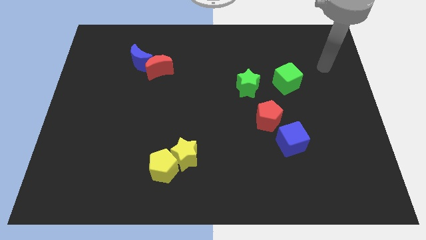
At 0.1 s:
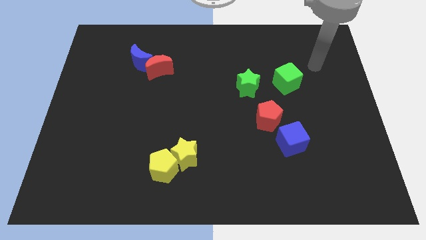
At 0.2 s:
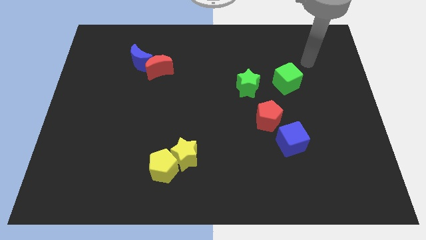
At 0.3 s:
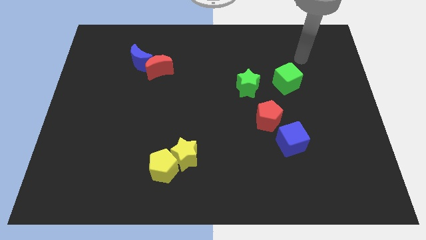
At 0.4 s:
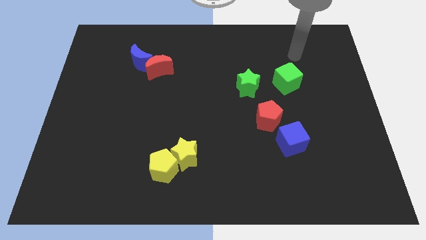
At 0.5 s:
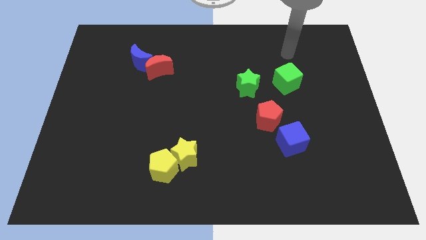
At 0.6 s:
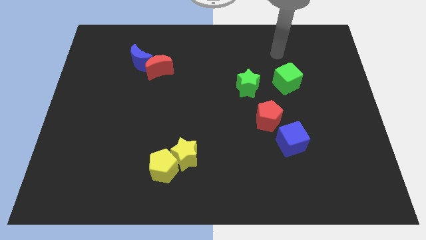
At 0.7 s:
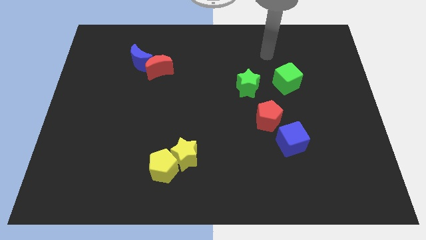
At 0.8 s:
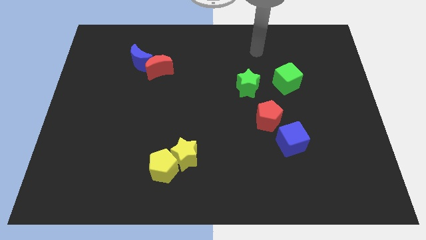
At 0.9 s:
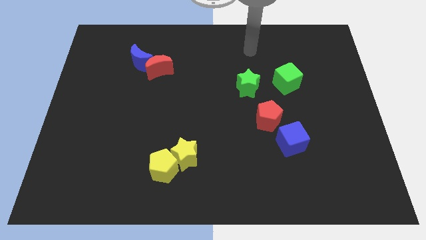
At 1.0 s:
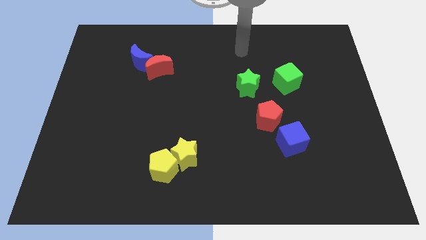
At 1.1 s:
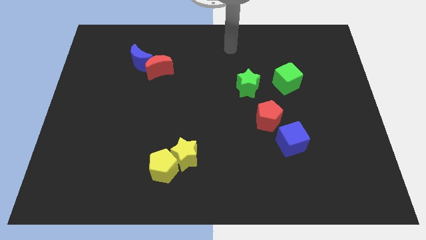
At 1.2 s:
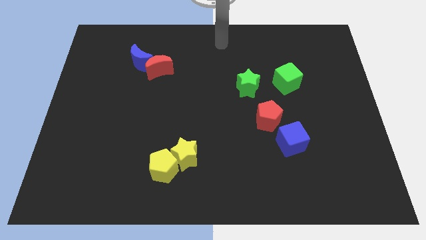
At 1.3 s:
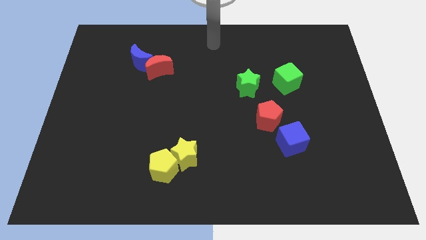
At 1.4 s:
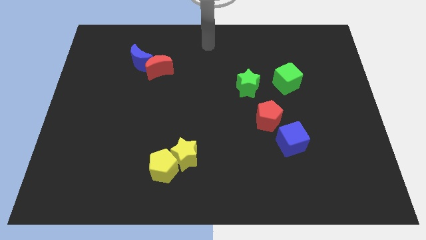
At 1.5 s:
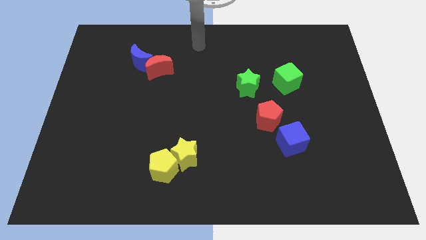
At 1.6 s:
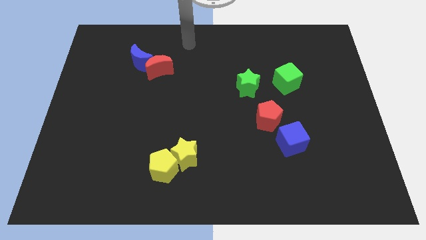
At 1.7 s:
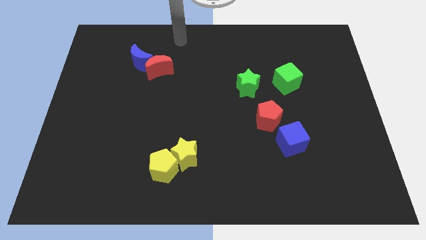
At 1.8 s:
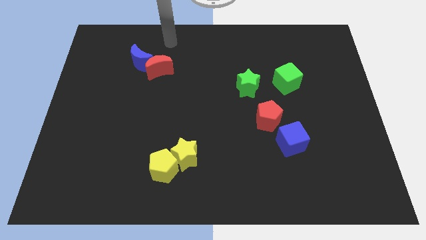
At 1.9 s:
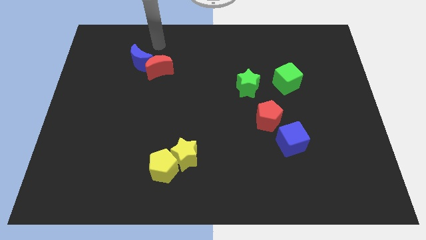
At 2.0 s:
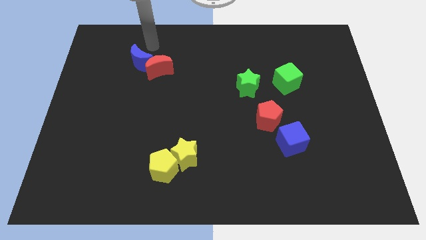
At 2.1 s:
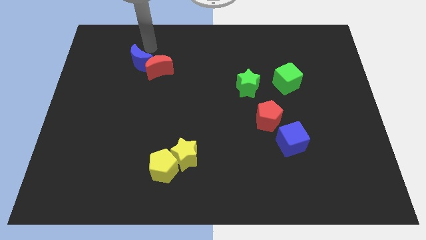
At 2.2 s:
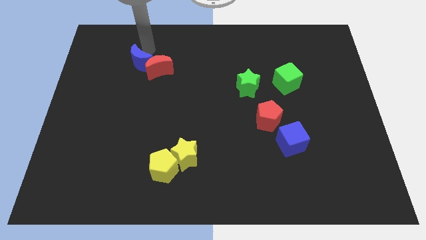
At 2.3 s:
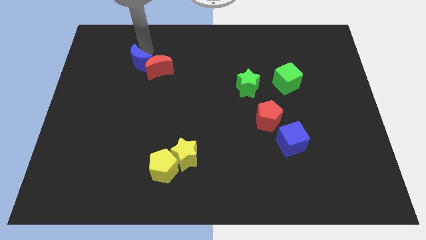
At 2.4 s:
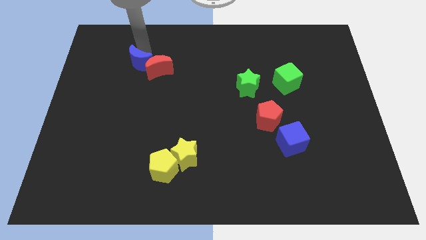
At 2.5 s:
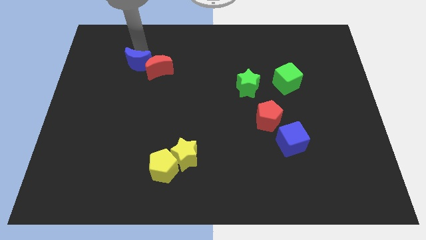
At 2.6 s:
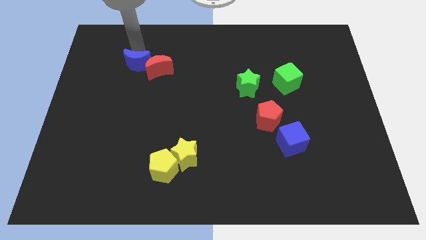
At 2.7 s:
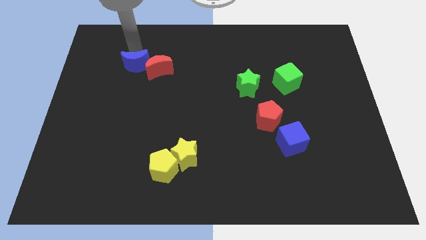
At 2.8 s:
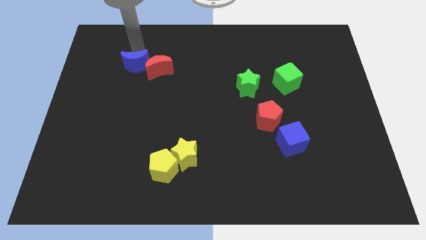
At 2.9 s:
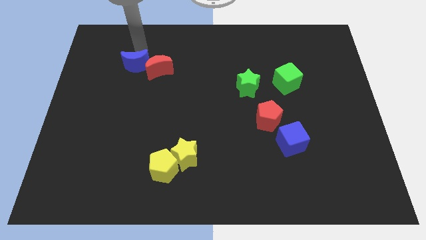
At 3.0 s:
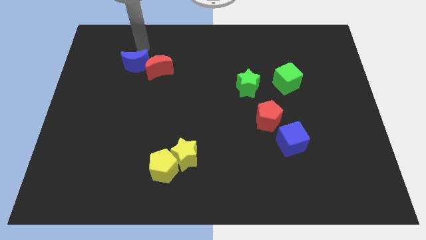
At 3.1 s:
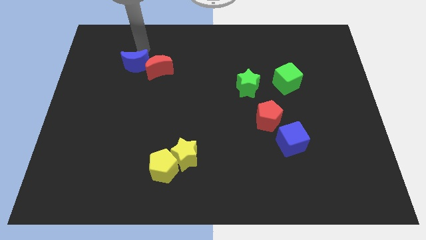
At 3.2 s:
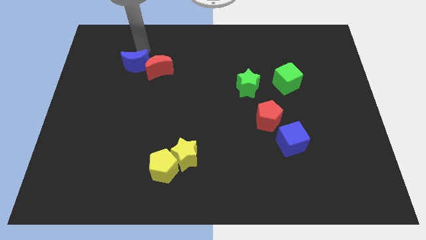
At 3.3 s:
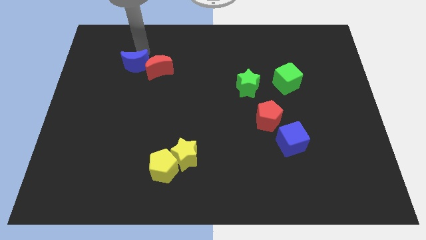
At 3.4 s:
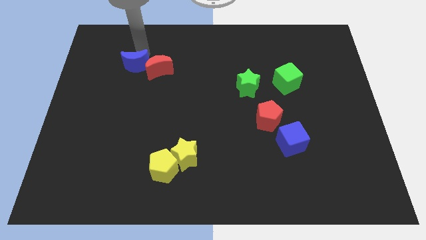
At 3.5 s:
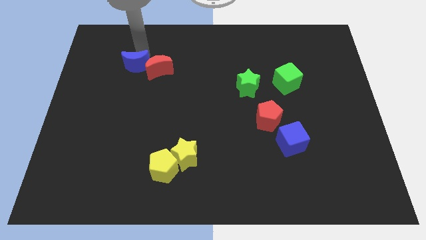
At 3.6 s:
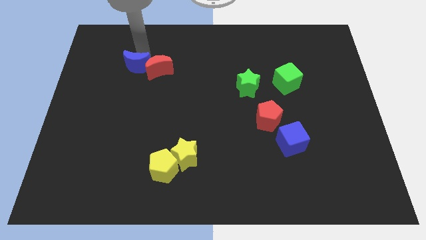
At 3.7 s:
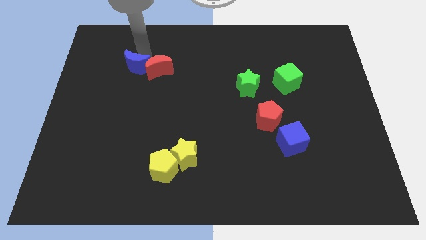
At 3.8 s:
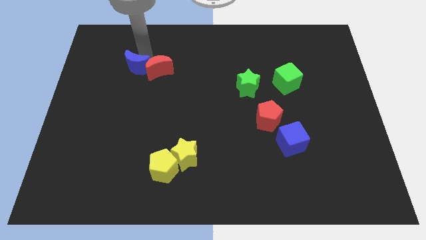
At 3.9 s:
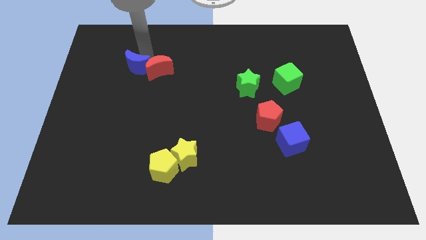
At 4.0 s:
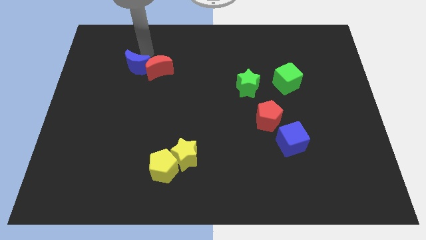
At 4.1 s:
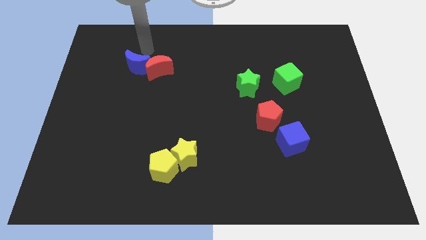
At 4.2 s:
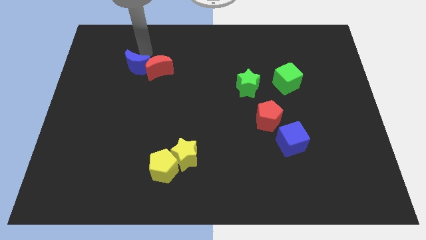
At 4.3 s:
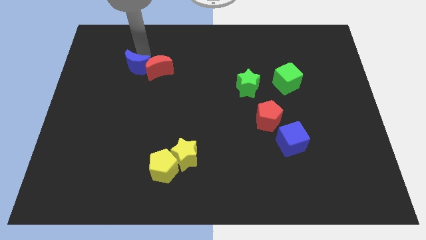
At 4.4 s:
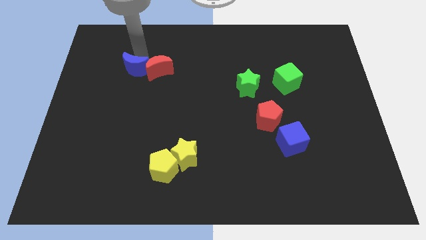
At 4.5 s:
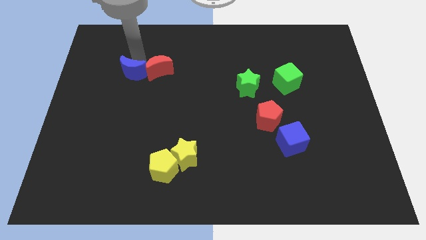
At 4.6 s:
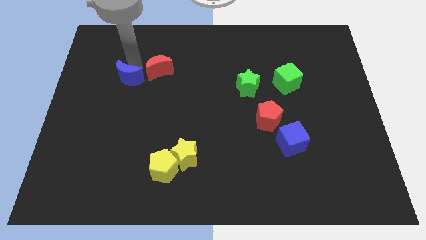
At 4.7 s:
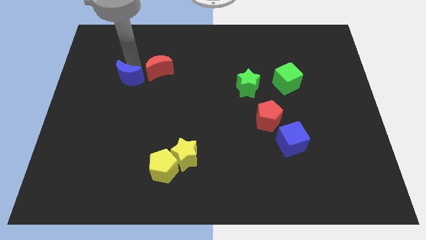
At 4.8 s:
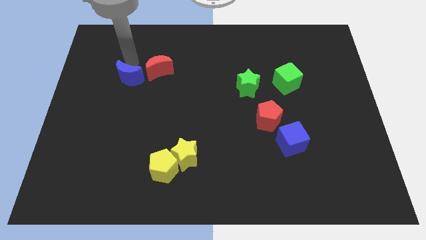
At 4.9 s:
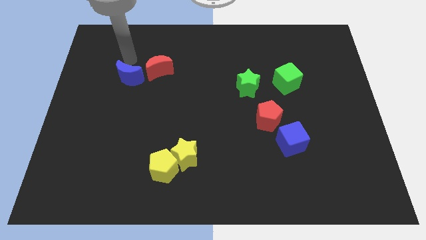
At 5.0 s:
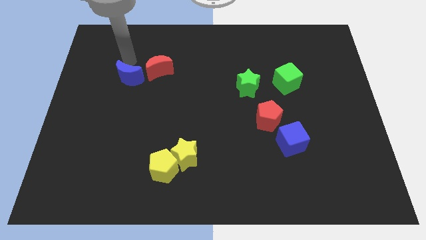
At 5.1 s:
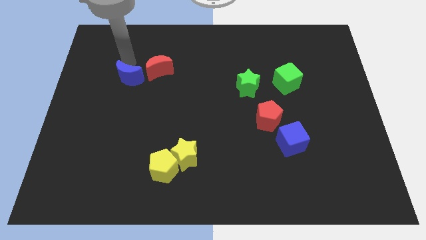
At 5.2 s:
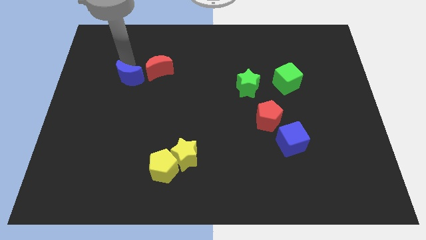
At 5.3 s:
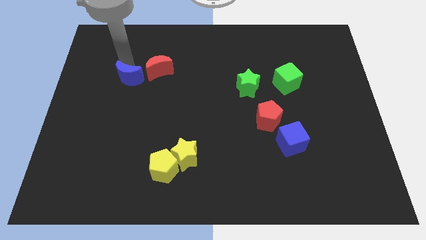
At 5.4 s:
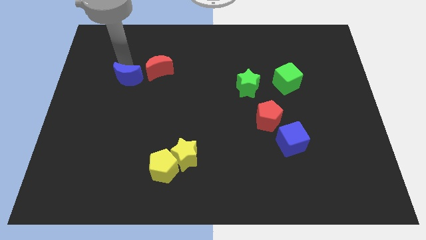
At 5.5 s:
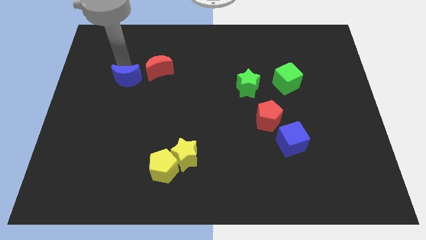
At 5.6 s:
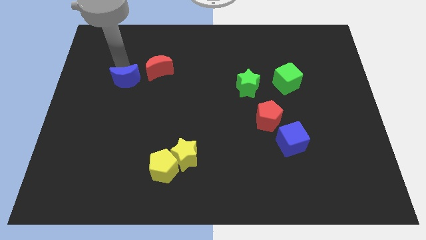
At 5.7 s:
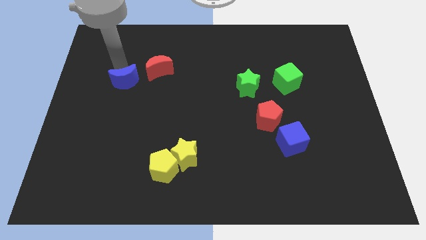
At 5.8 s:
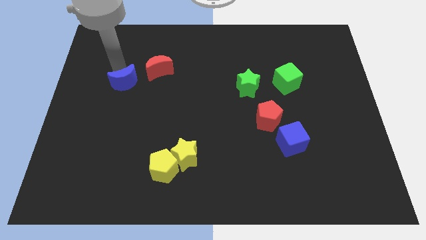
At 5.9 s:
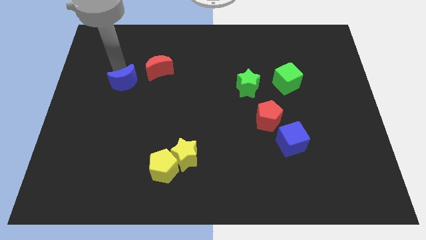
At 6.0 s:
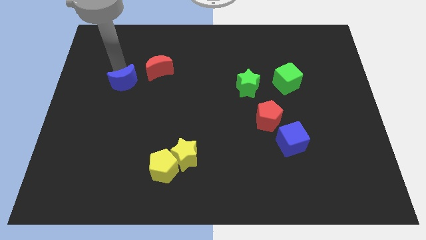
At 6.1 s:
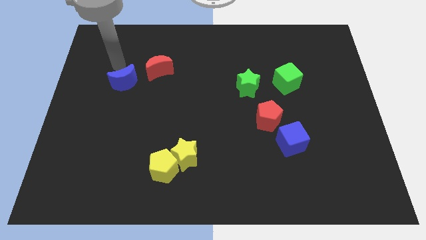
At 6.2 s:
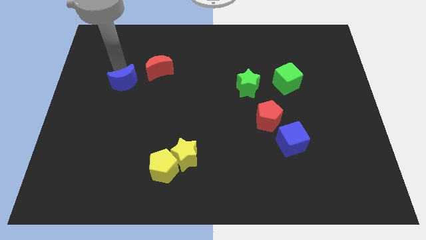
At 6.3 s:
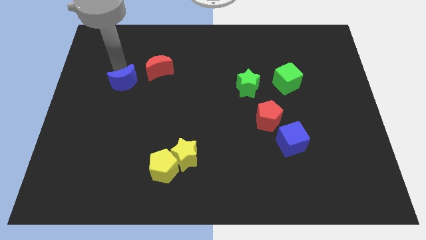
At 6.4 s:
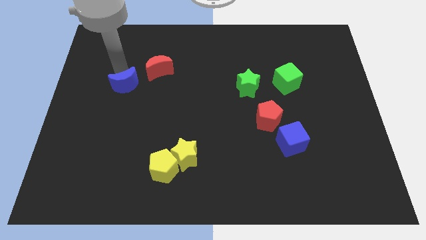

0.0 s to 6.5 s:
slide the blue moon a little bit down

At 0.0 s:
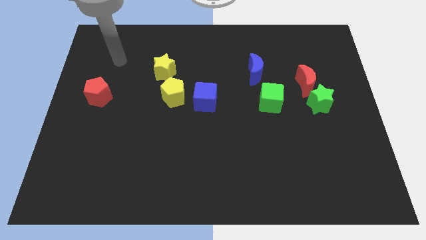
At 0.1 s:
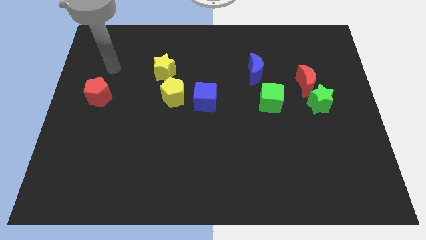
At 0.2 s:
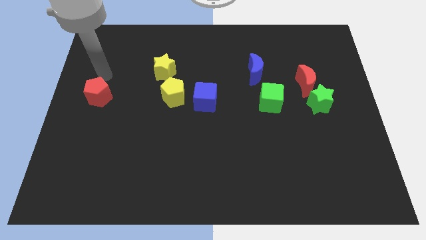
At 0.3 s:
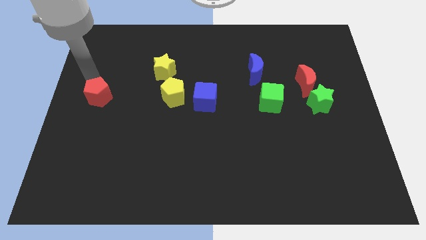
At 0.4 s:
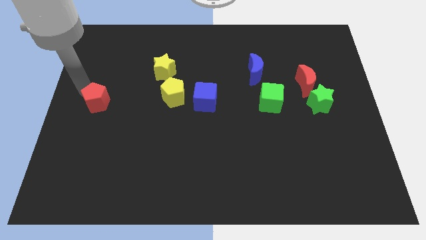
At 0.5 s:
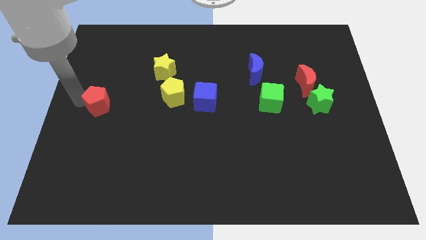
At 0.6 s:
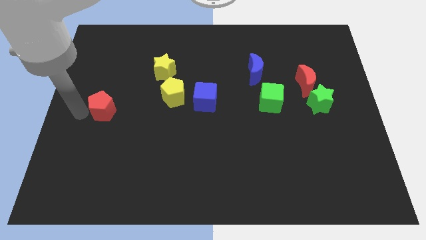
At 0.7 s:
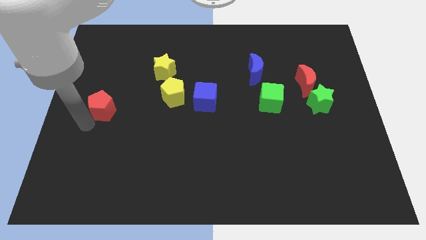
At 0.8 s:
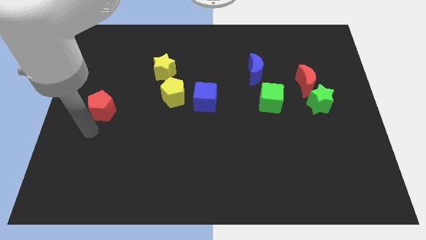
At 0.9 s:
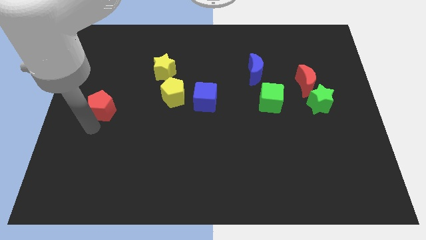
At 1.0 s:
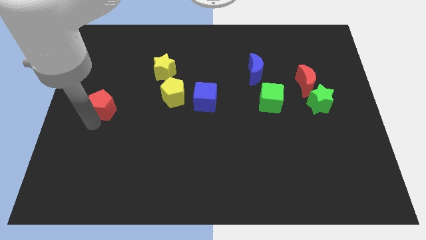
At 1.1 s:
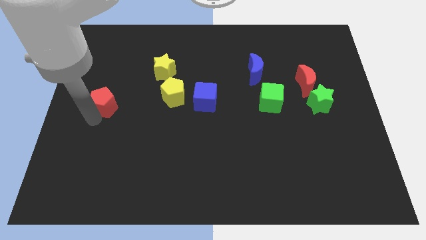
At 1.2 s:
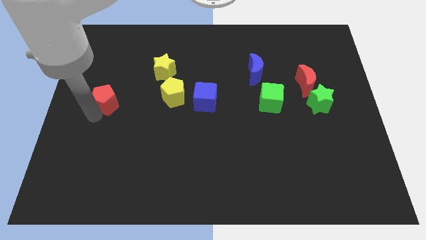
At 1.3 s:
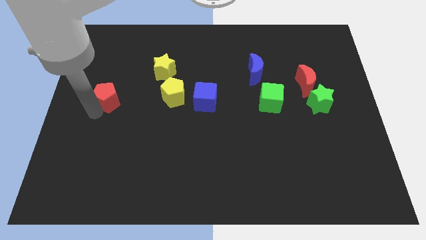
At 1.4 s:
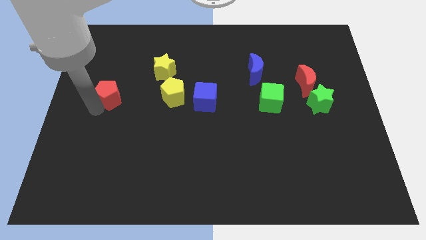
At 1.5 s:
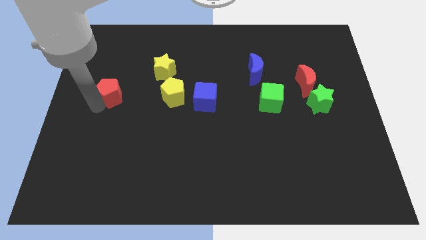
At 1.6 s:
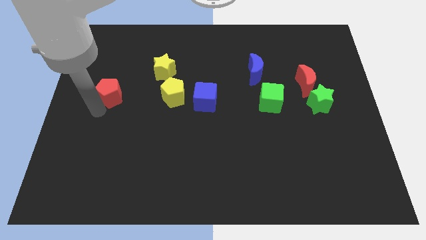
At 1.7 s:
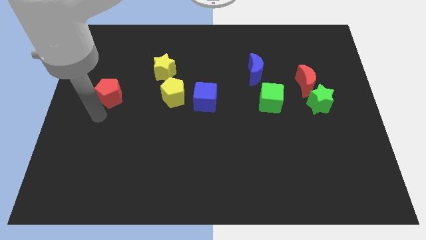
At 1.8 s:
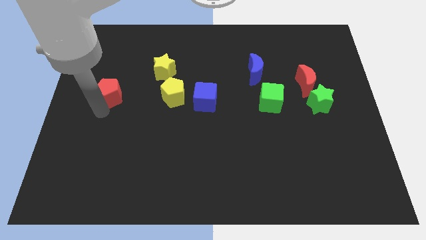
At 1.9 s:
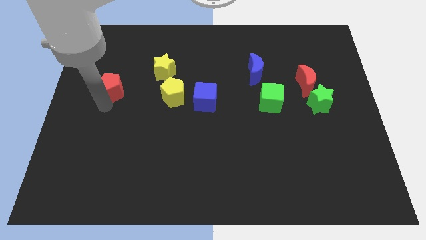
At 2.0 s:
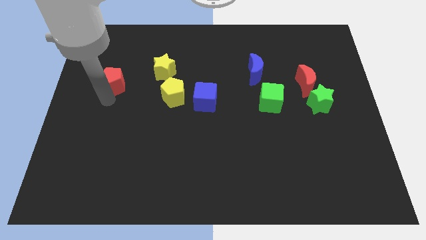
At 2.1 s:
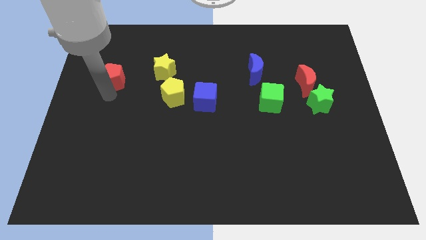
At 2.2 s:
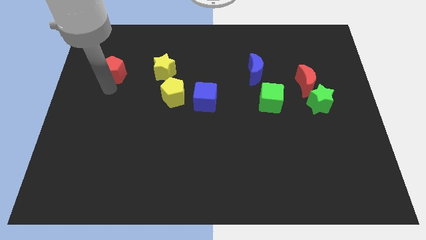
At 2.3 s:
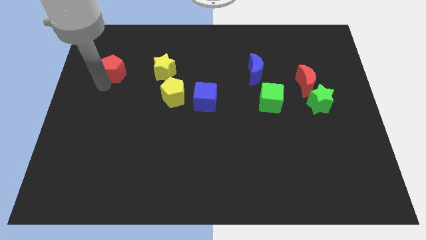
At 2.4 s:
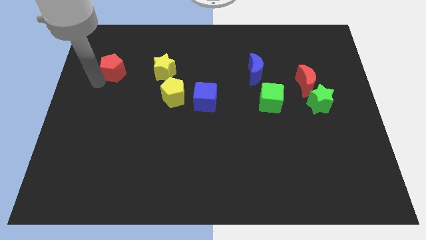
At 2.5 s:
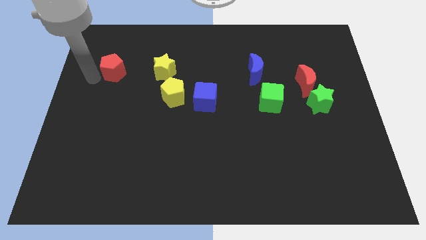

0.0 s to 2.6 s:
slightly slide the red pentagon up and then right
